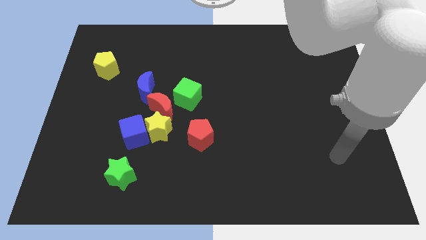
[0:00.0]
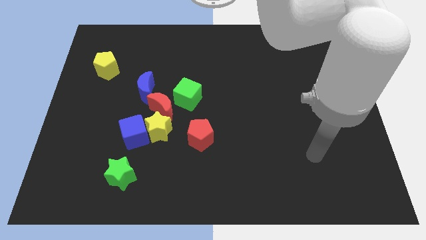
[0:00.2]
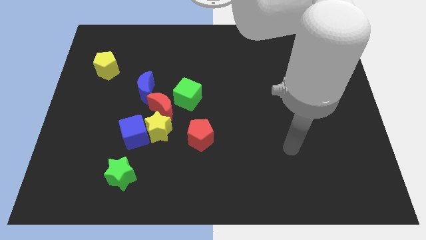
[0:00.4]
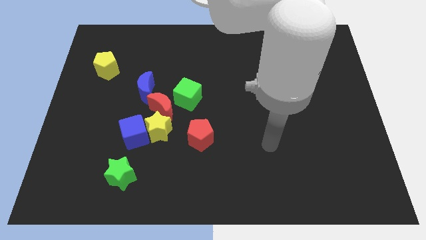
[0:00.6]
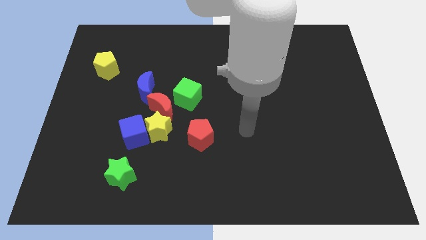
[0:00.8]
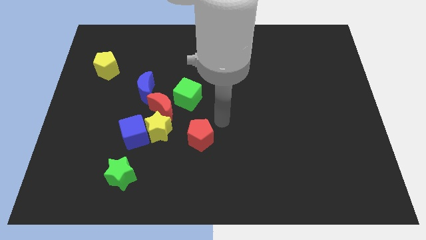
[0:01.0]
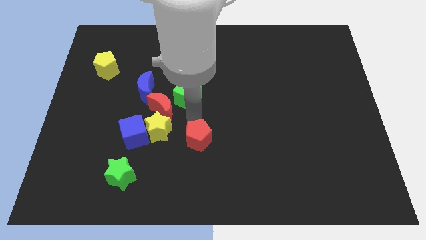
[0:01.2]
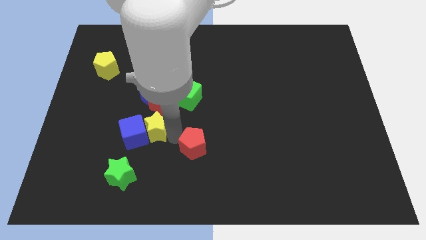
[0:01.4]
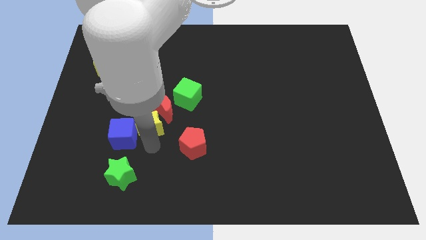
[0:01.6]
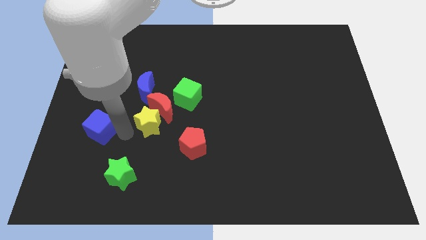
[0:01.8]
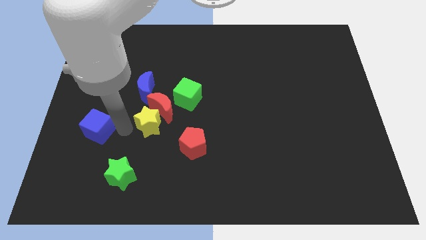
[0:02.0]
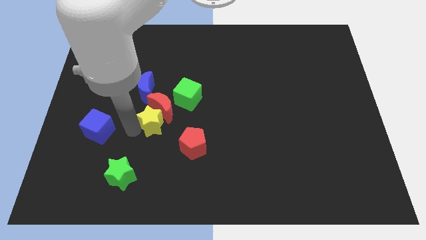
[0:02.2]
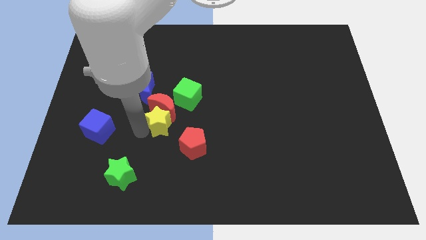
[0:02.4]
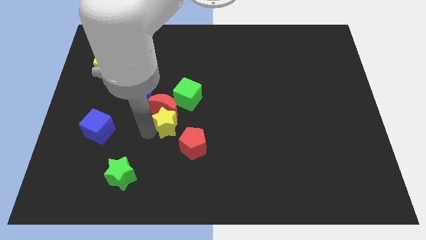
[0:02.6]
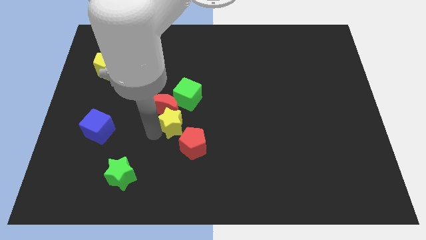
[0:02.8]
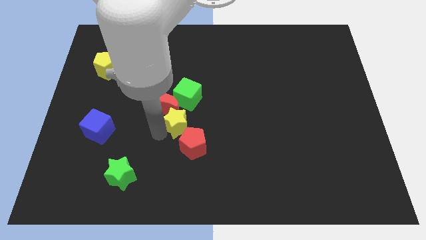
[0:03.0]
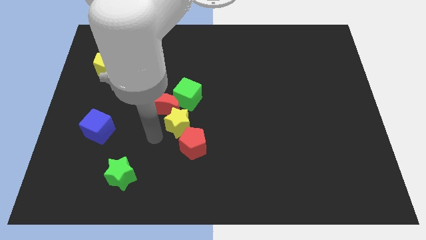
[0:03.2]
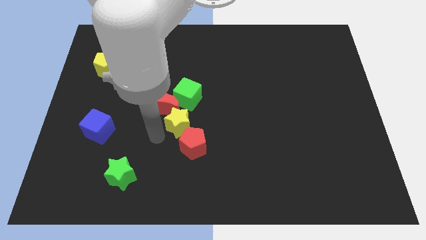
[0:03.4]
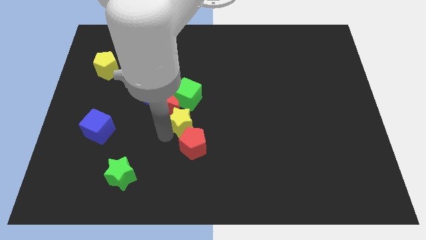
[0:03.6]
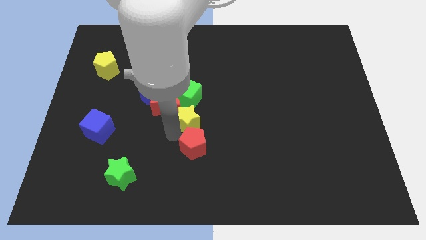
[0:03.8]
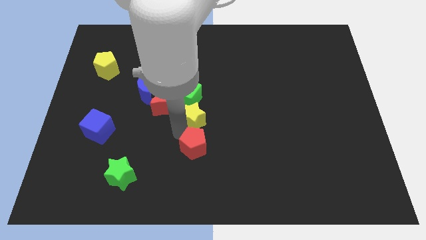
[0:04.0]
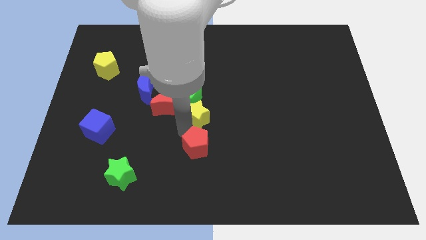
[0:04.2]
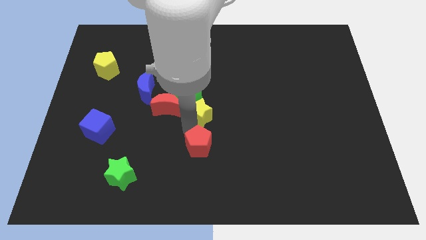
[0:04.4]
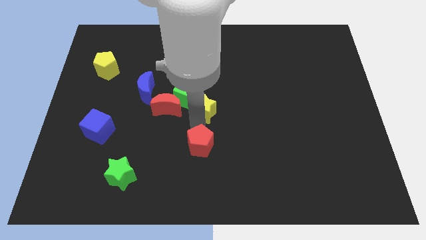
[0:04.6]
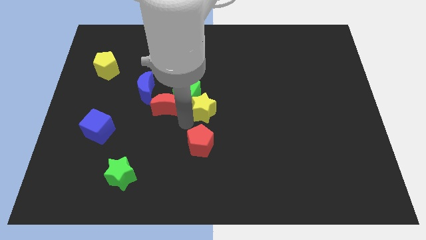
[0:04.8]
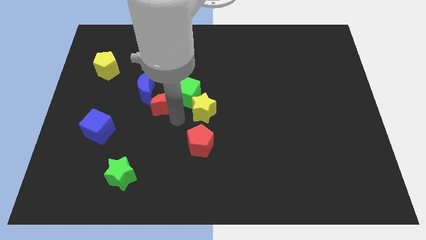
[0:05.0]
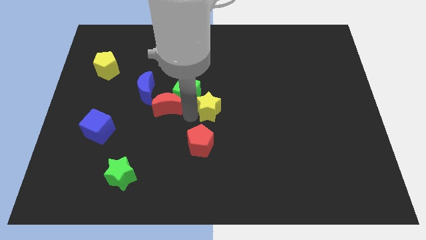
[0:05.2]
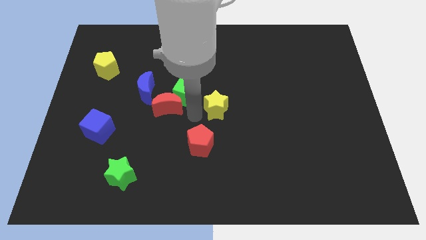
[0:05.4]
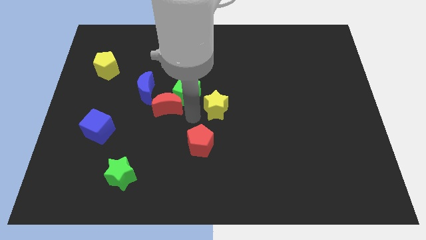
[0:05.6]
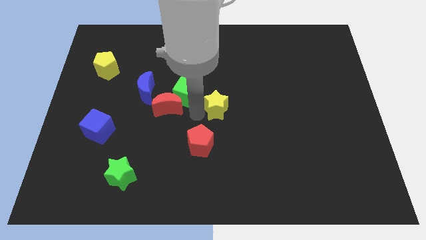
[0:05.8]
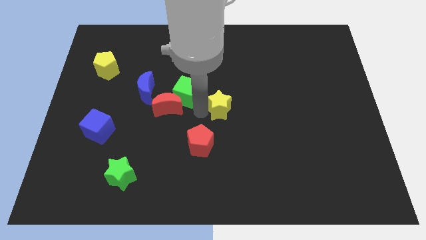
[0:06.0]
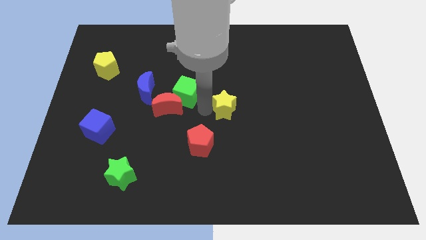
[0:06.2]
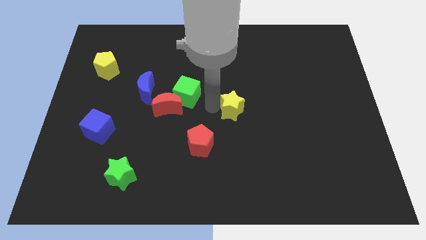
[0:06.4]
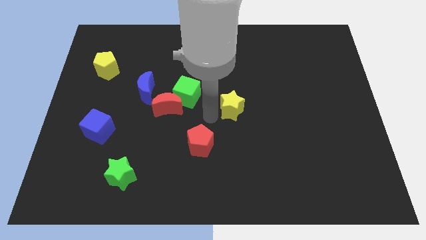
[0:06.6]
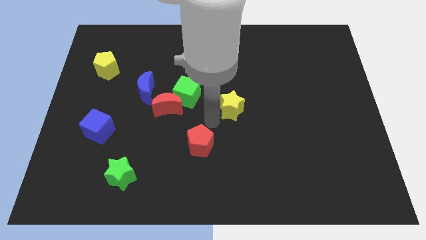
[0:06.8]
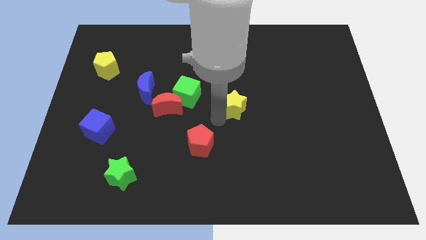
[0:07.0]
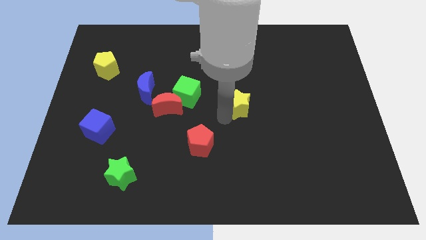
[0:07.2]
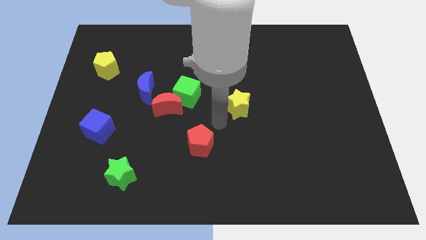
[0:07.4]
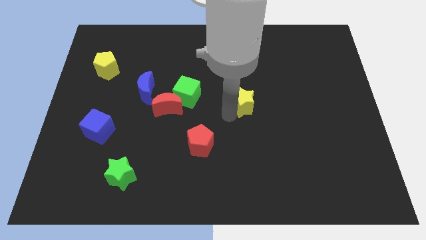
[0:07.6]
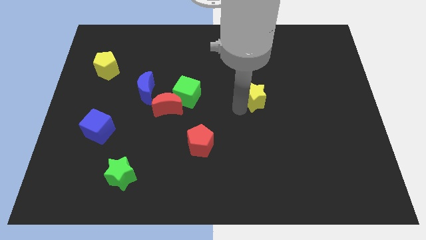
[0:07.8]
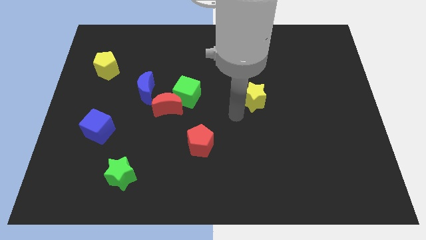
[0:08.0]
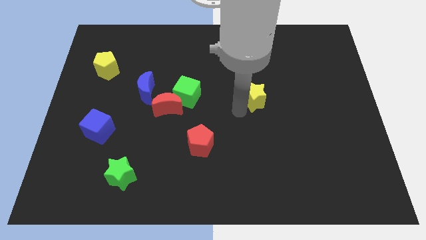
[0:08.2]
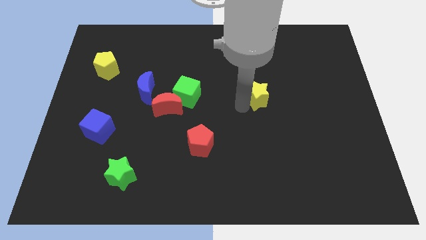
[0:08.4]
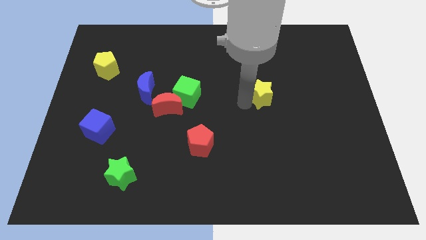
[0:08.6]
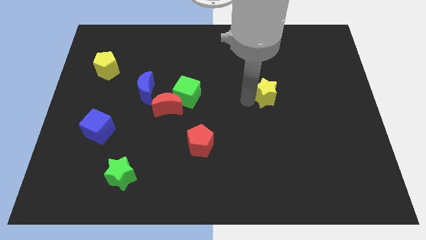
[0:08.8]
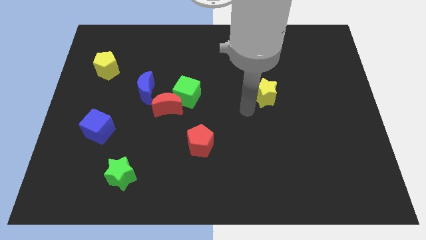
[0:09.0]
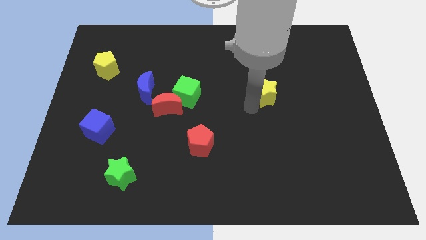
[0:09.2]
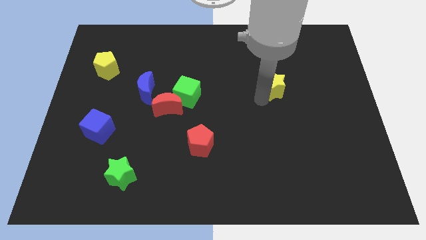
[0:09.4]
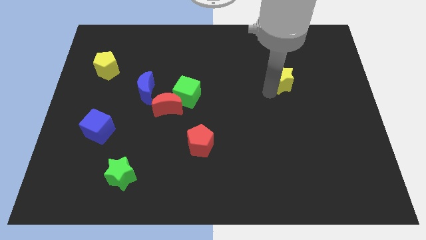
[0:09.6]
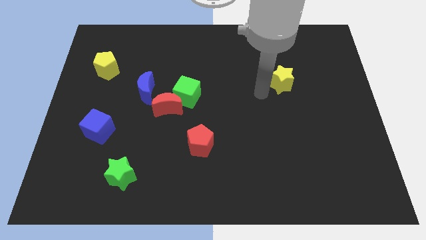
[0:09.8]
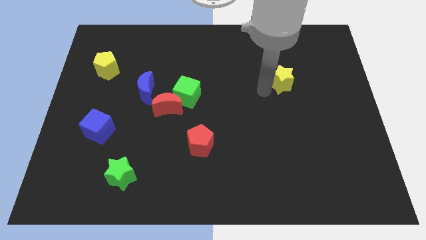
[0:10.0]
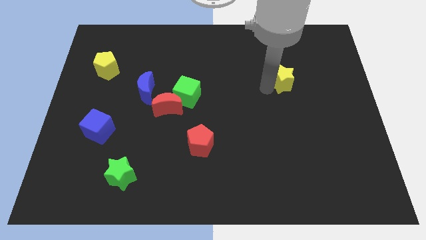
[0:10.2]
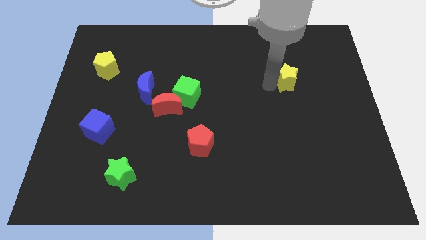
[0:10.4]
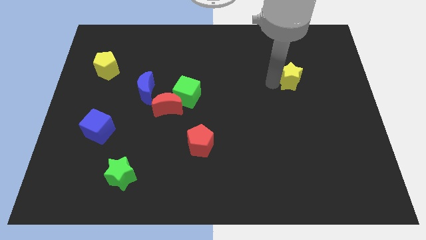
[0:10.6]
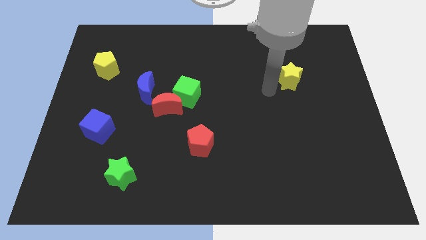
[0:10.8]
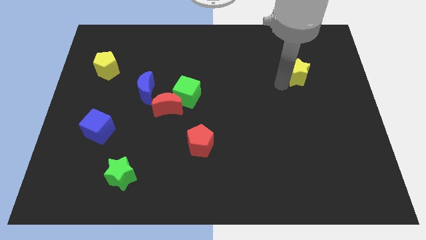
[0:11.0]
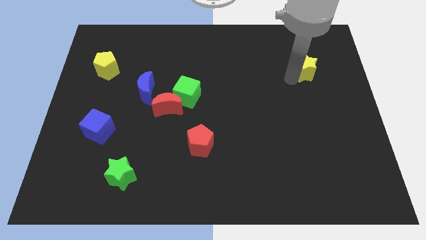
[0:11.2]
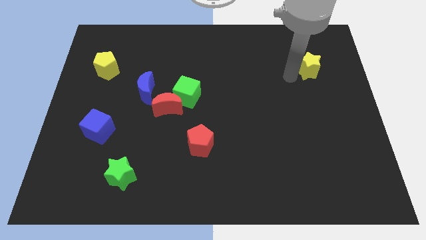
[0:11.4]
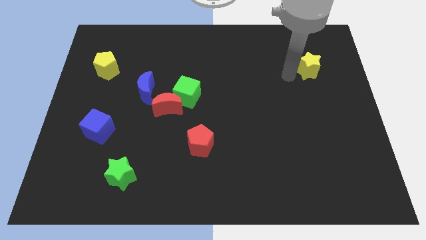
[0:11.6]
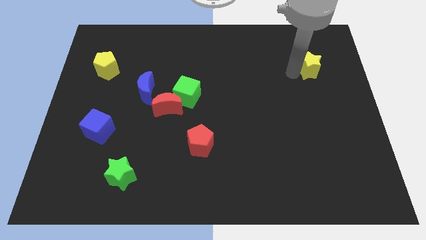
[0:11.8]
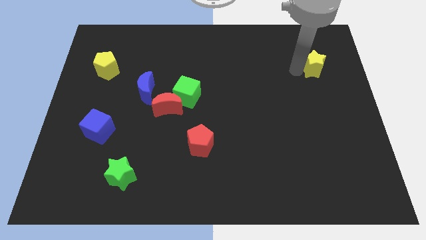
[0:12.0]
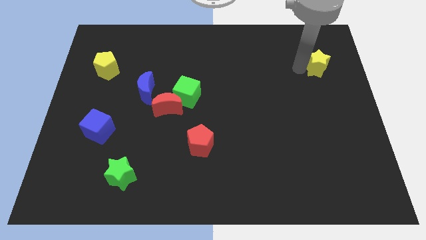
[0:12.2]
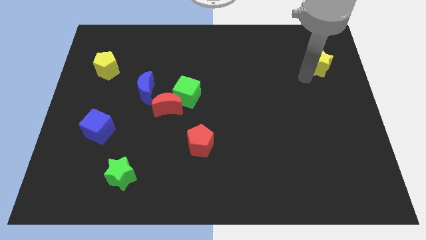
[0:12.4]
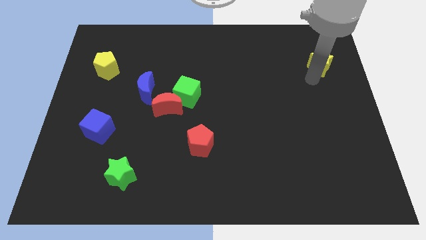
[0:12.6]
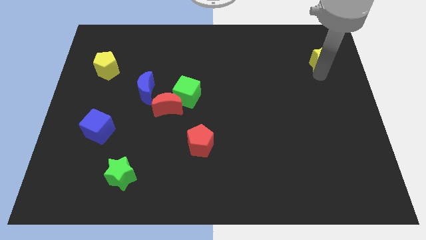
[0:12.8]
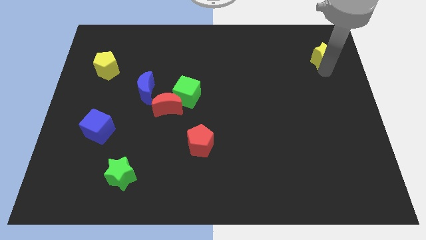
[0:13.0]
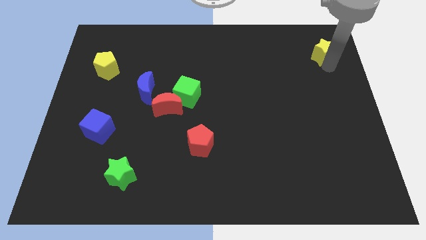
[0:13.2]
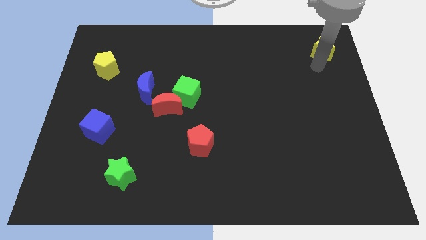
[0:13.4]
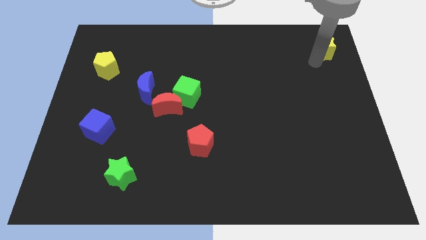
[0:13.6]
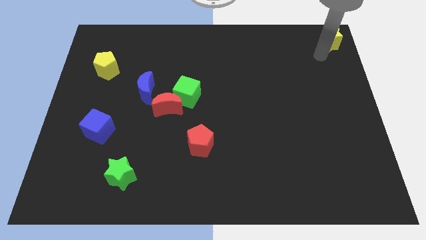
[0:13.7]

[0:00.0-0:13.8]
push the yellow star to the top right of the board
